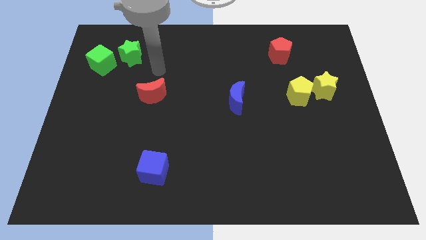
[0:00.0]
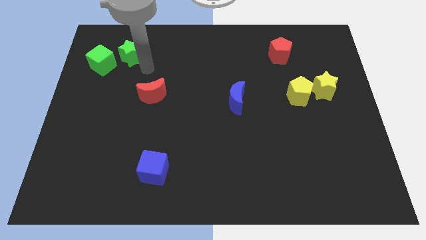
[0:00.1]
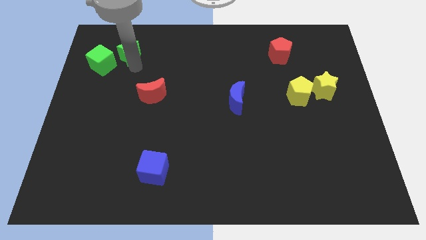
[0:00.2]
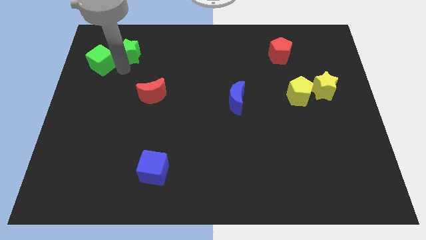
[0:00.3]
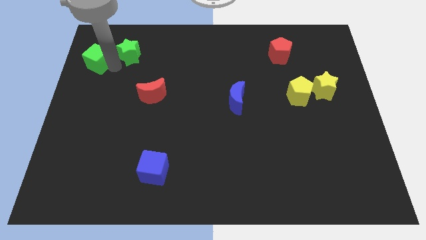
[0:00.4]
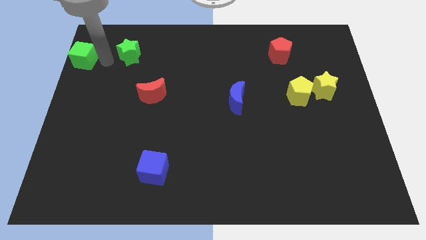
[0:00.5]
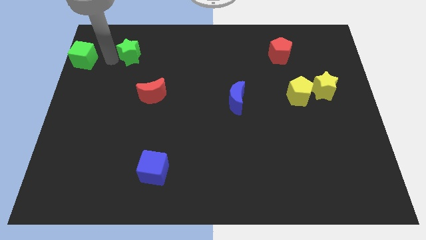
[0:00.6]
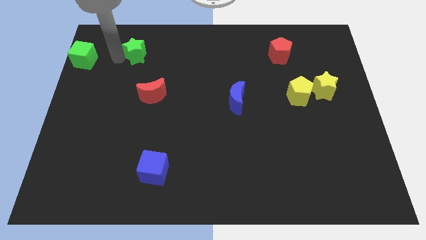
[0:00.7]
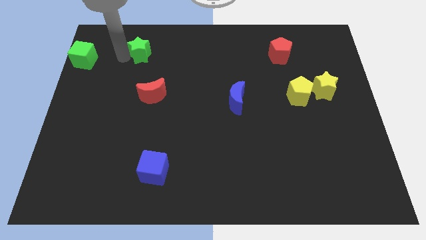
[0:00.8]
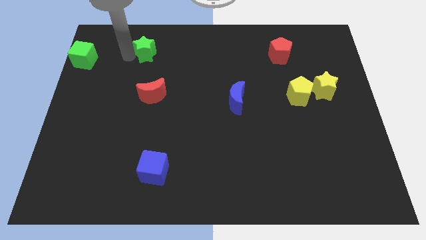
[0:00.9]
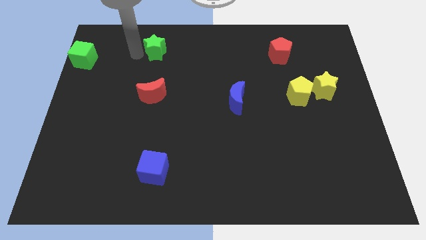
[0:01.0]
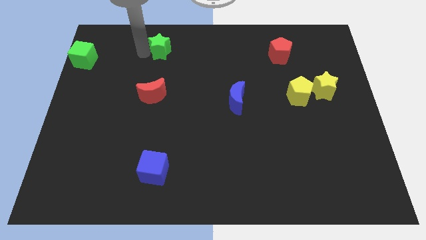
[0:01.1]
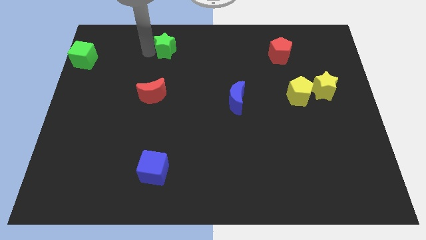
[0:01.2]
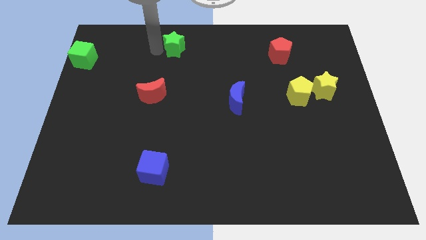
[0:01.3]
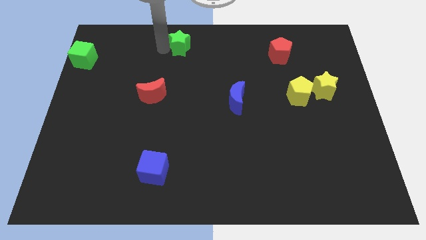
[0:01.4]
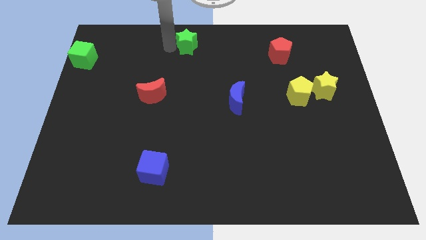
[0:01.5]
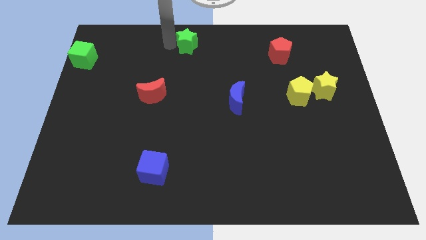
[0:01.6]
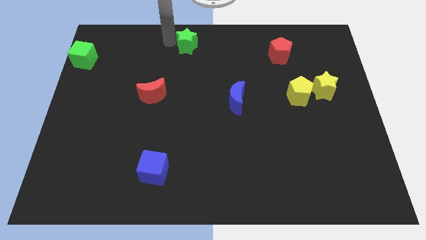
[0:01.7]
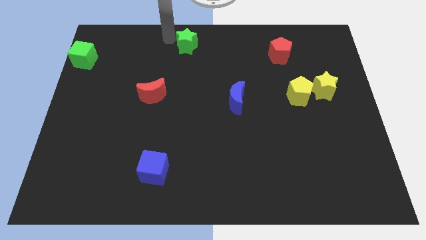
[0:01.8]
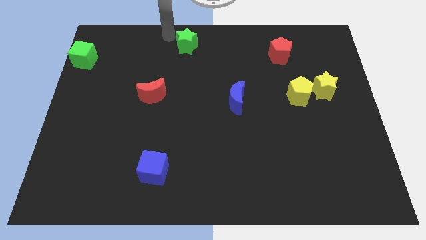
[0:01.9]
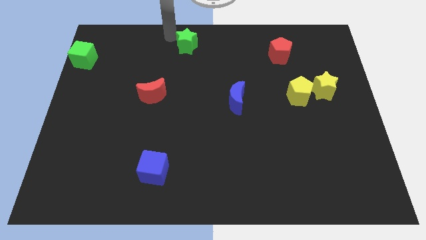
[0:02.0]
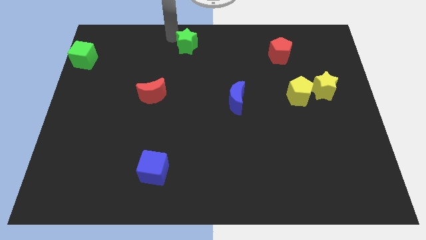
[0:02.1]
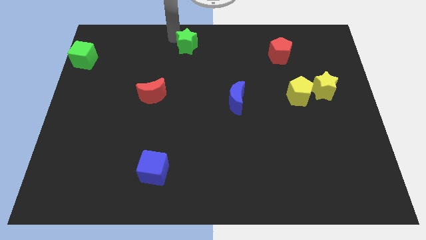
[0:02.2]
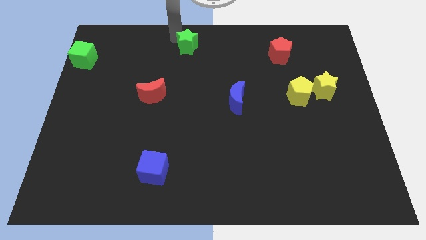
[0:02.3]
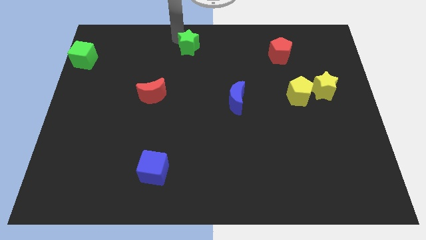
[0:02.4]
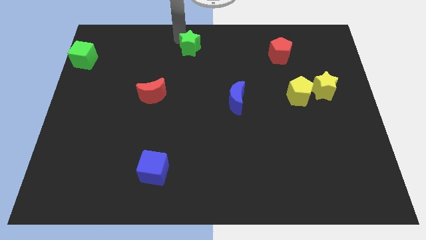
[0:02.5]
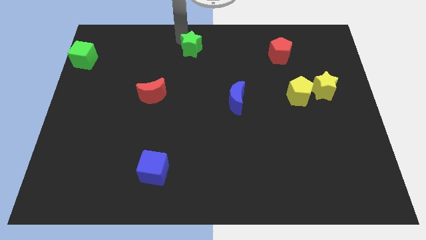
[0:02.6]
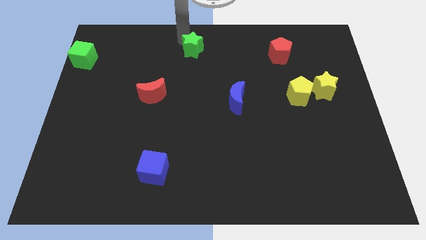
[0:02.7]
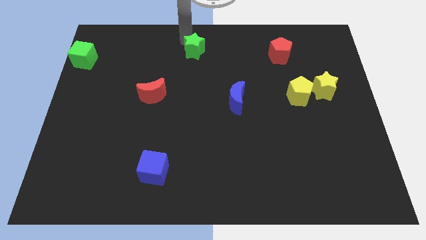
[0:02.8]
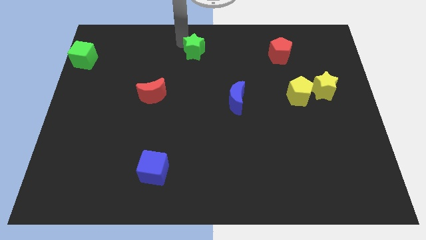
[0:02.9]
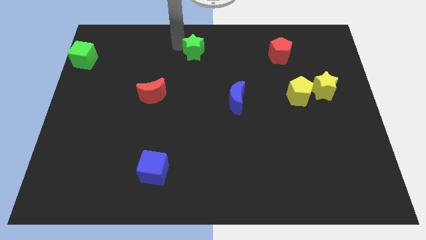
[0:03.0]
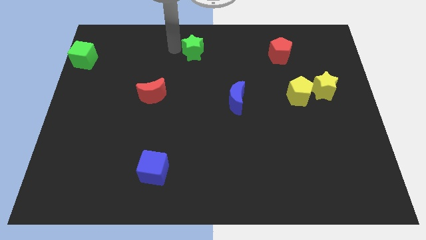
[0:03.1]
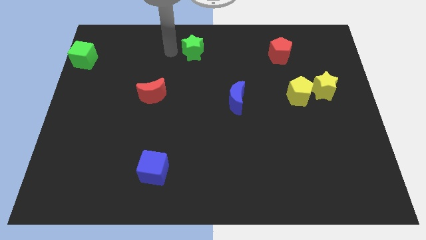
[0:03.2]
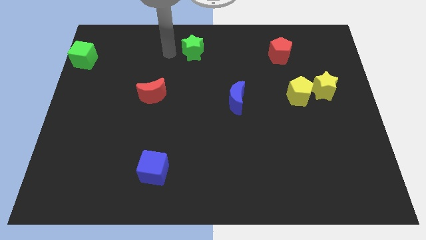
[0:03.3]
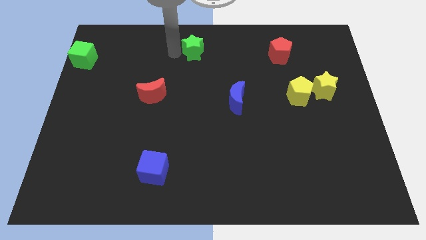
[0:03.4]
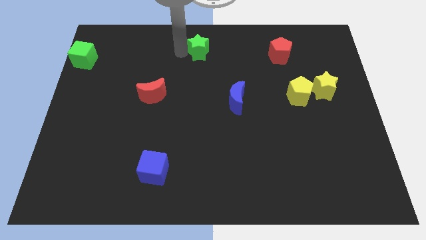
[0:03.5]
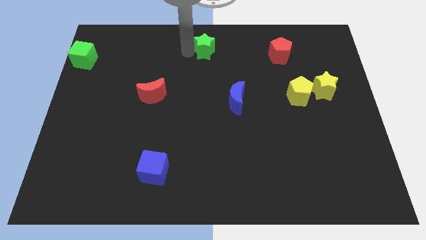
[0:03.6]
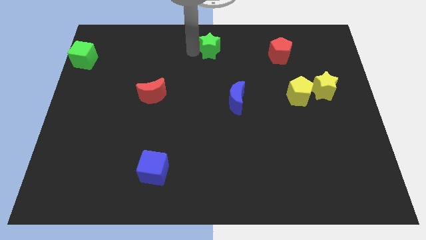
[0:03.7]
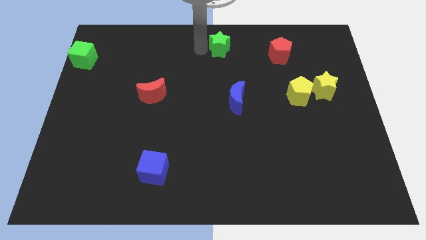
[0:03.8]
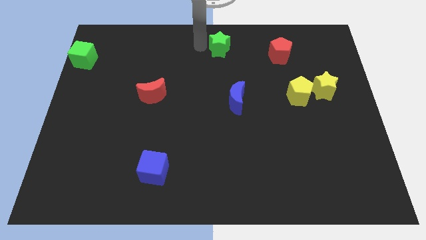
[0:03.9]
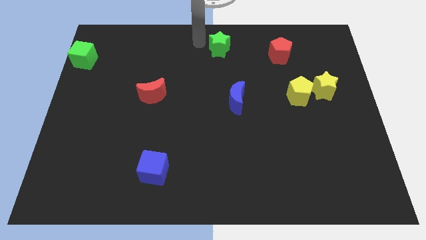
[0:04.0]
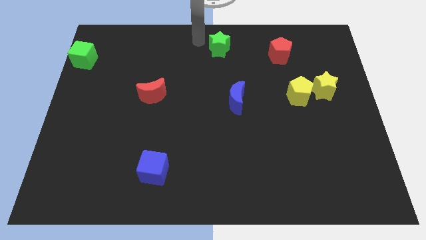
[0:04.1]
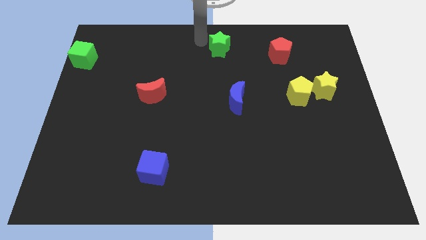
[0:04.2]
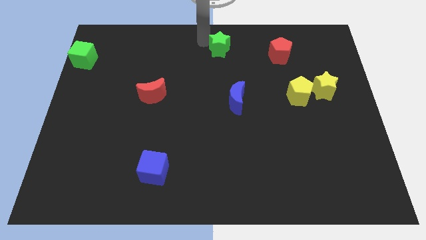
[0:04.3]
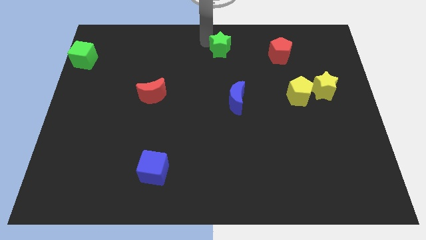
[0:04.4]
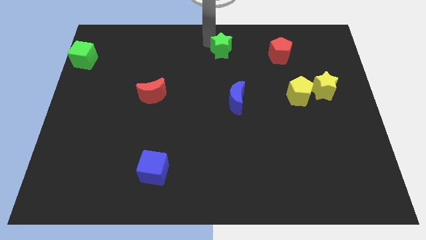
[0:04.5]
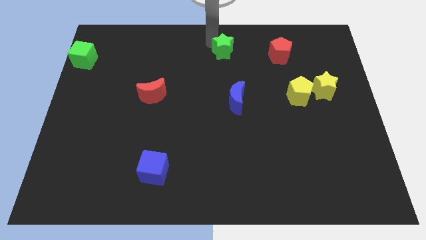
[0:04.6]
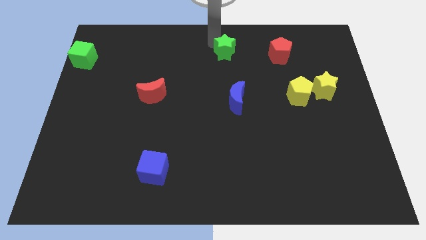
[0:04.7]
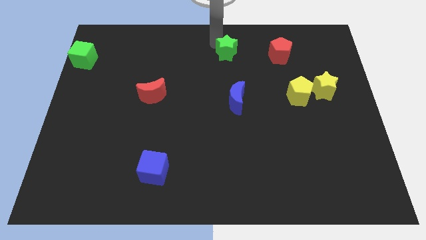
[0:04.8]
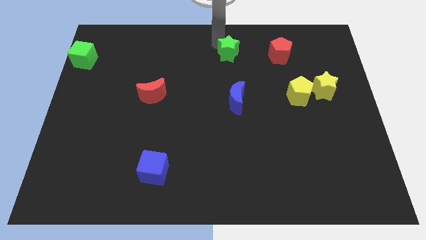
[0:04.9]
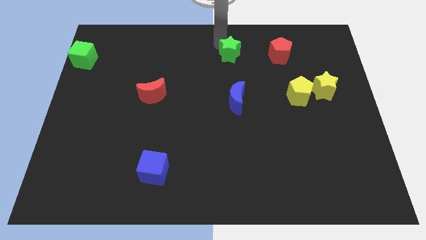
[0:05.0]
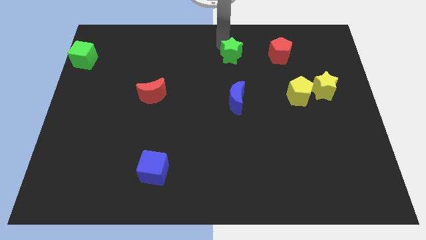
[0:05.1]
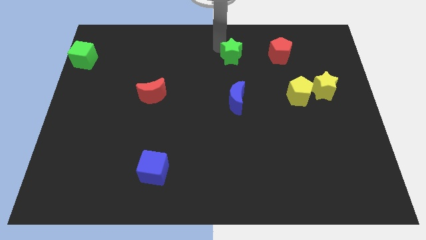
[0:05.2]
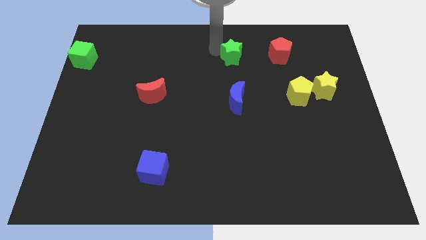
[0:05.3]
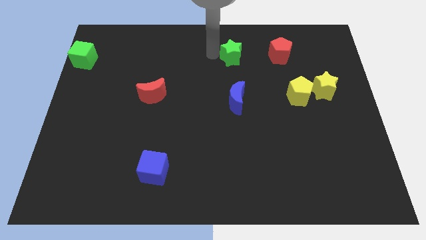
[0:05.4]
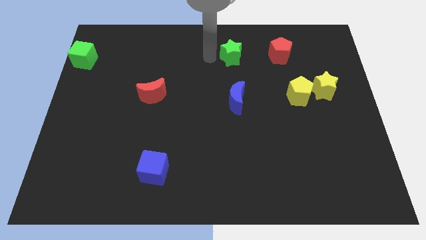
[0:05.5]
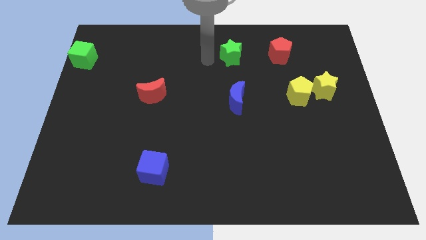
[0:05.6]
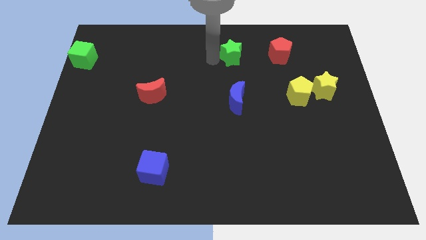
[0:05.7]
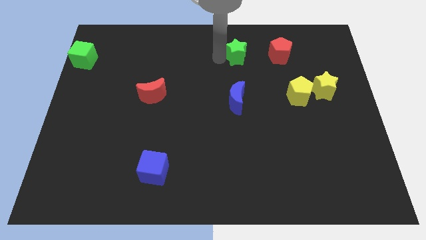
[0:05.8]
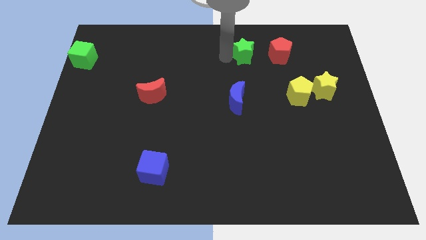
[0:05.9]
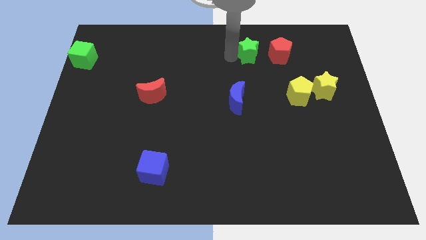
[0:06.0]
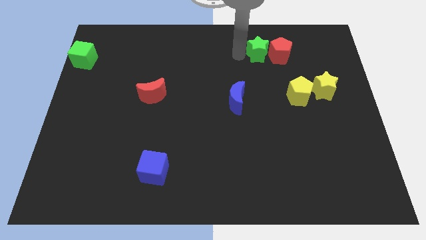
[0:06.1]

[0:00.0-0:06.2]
push the green star close to the red pentagon

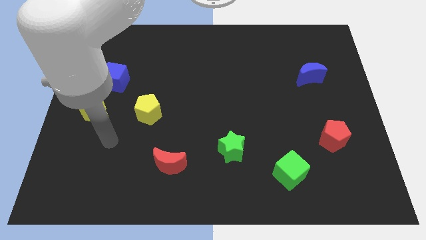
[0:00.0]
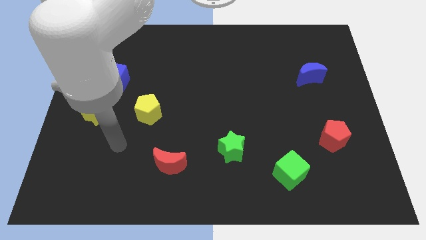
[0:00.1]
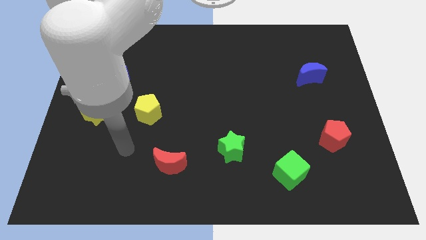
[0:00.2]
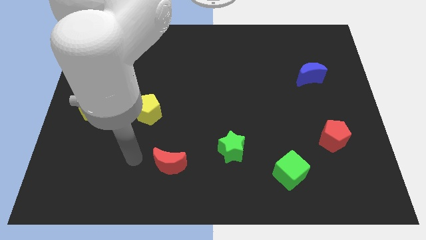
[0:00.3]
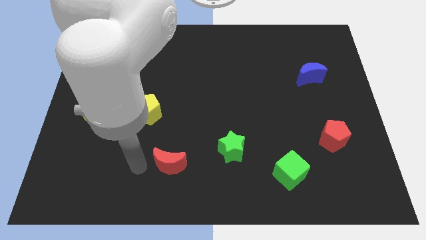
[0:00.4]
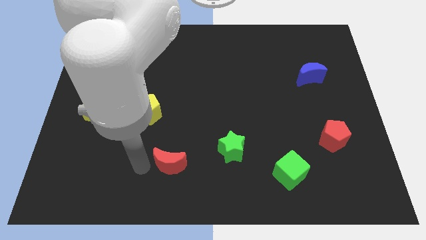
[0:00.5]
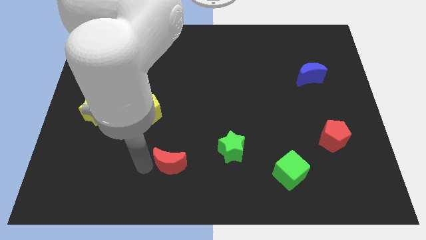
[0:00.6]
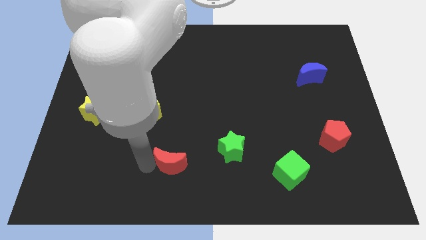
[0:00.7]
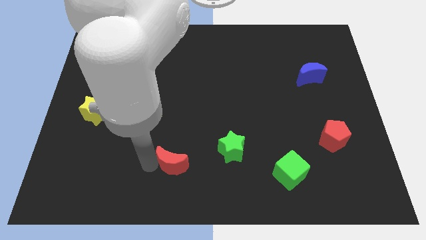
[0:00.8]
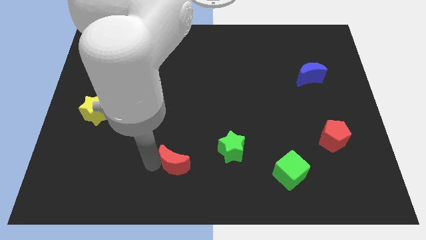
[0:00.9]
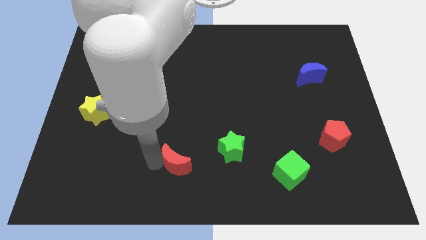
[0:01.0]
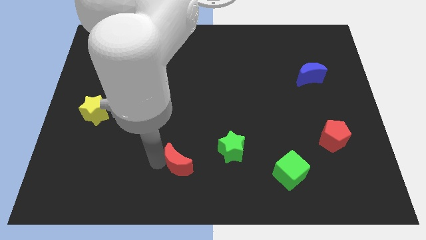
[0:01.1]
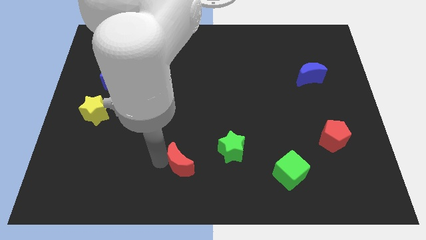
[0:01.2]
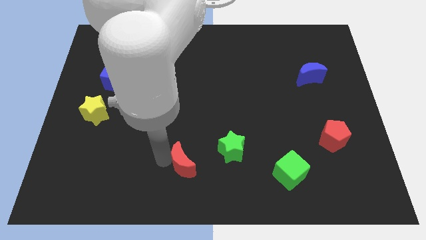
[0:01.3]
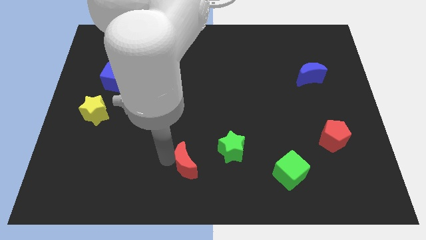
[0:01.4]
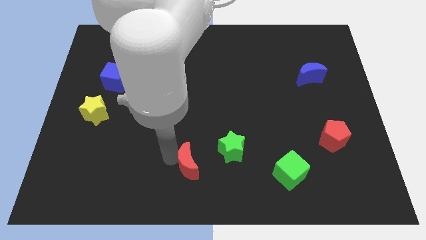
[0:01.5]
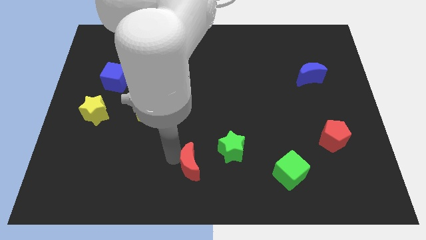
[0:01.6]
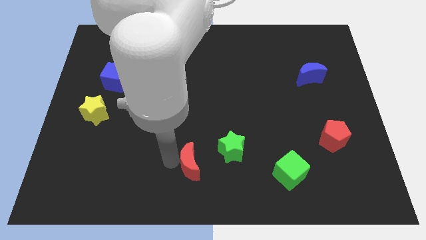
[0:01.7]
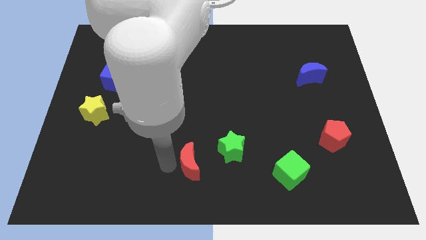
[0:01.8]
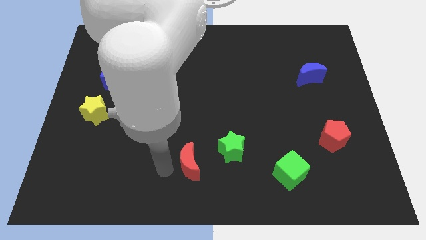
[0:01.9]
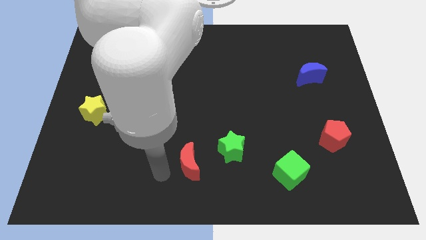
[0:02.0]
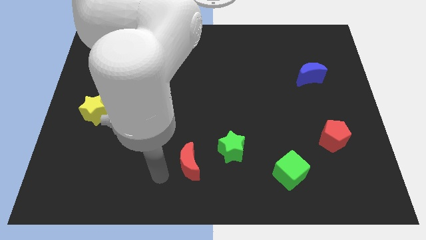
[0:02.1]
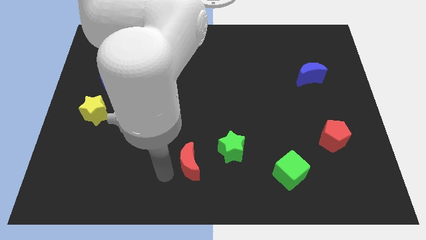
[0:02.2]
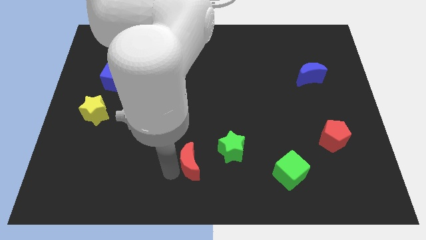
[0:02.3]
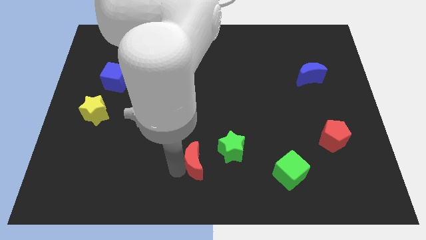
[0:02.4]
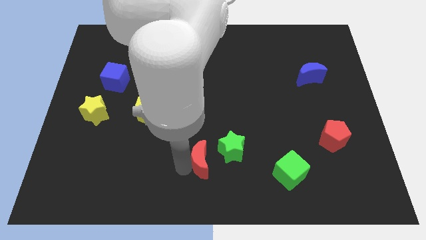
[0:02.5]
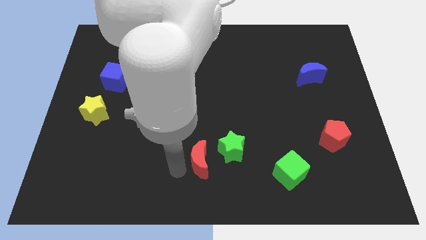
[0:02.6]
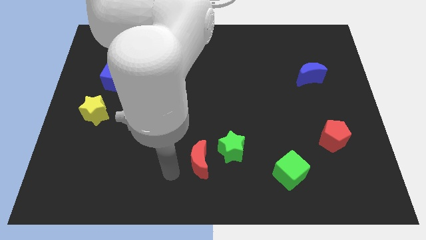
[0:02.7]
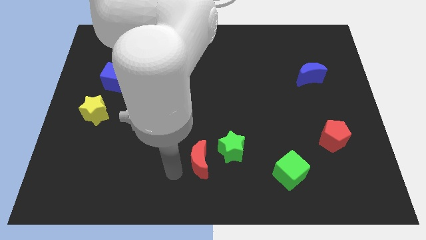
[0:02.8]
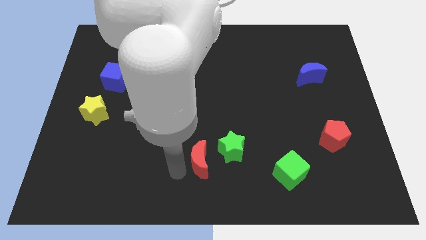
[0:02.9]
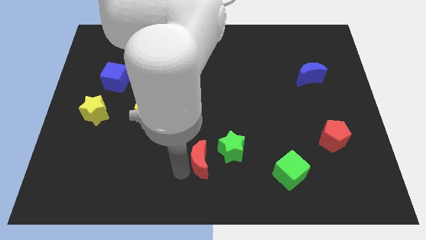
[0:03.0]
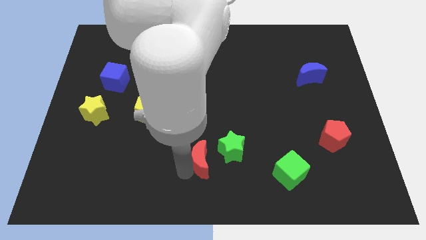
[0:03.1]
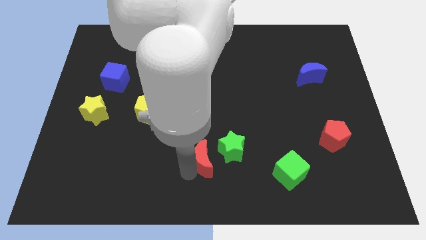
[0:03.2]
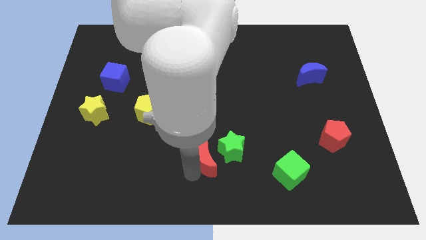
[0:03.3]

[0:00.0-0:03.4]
push the red moon to the green star
